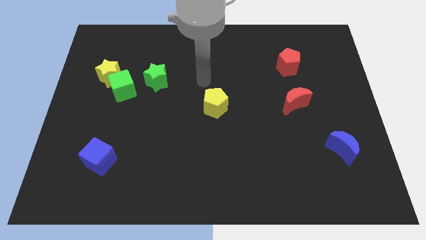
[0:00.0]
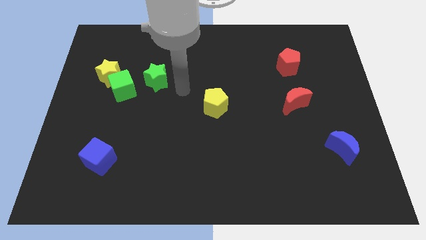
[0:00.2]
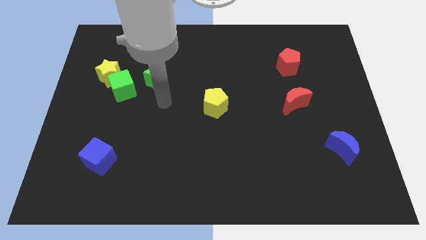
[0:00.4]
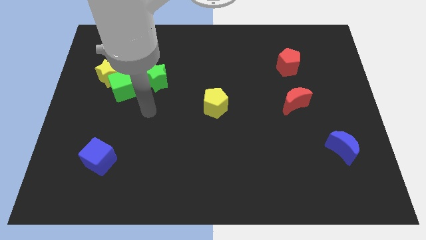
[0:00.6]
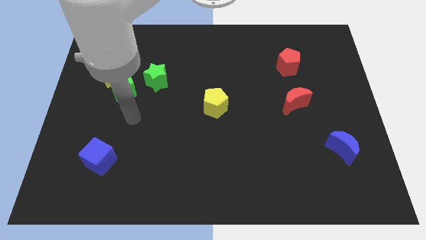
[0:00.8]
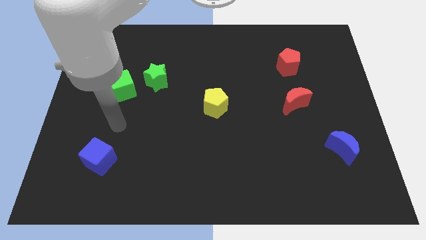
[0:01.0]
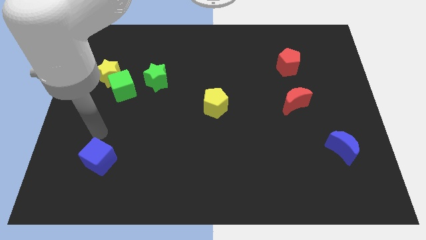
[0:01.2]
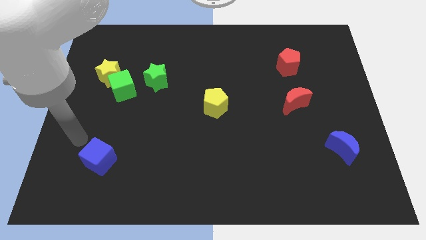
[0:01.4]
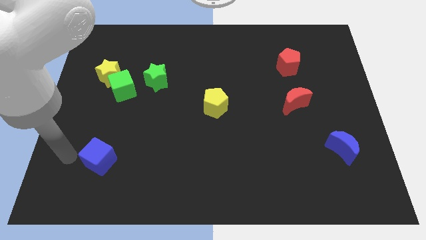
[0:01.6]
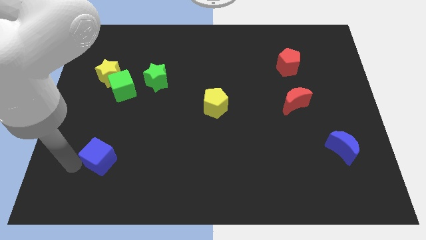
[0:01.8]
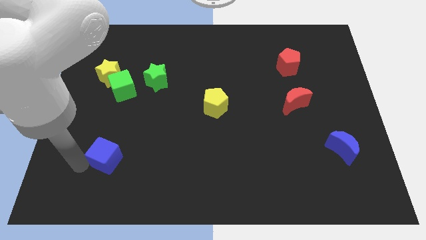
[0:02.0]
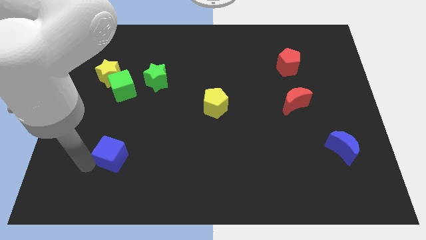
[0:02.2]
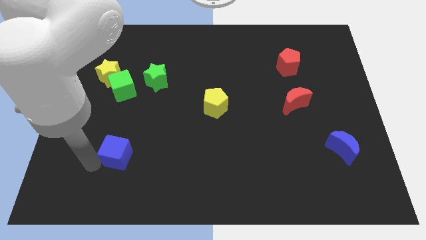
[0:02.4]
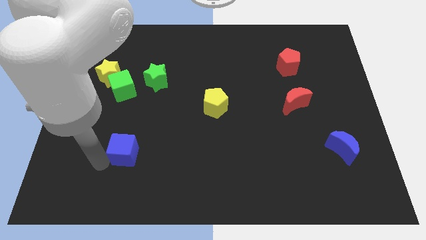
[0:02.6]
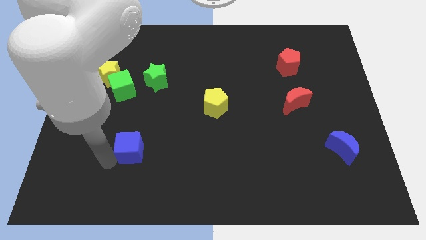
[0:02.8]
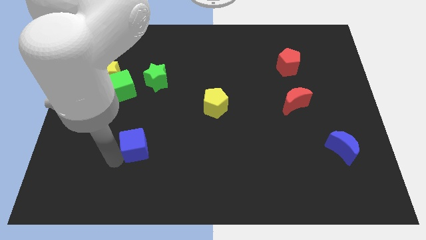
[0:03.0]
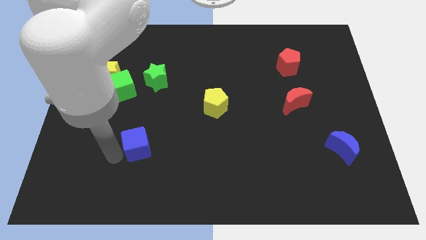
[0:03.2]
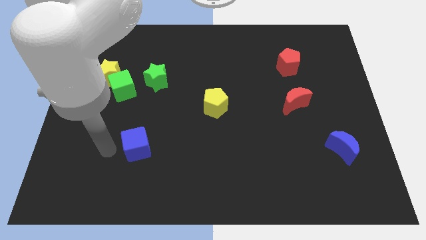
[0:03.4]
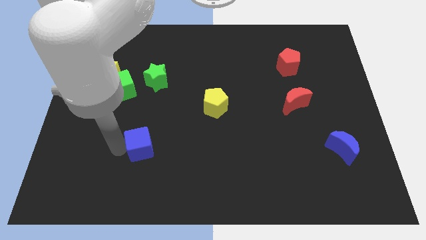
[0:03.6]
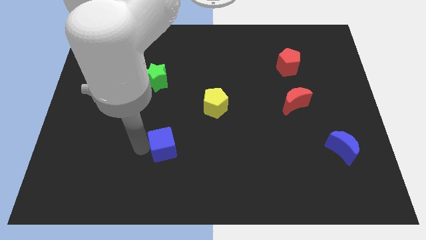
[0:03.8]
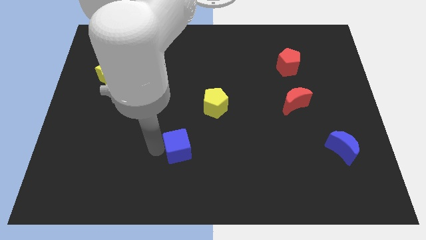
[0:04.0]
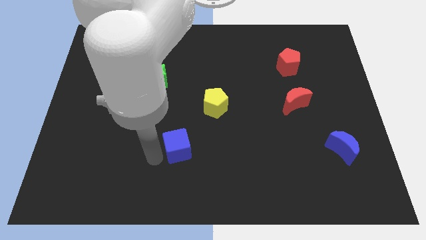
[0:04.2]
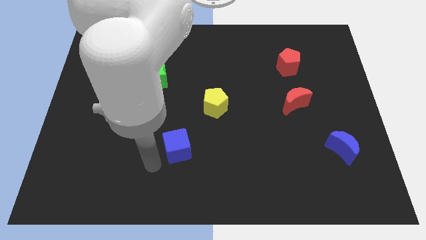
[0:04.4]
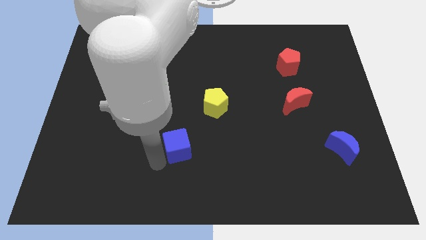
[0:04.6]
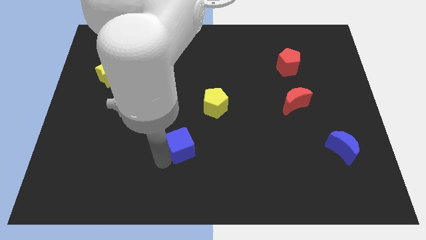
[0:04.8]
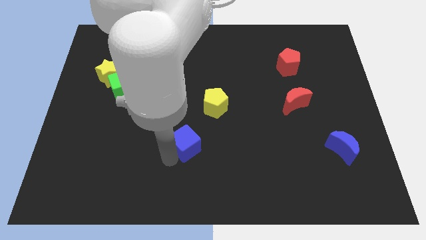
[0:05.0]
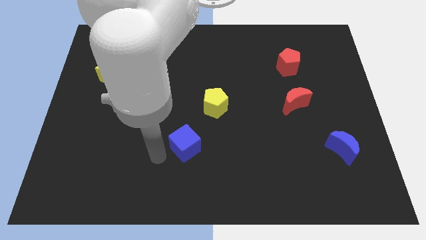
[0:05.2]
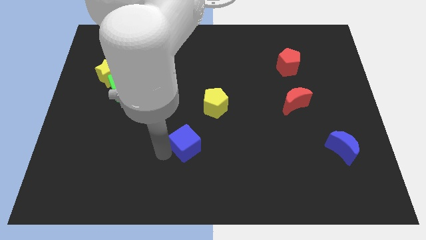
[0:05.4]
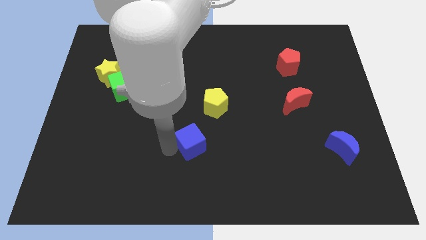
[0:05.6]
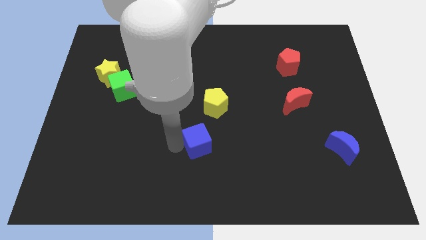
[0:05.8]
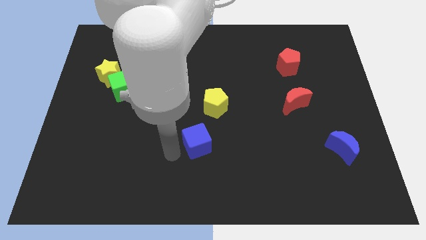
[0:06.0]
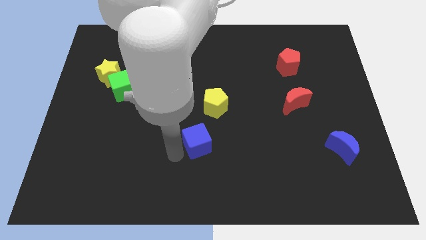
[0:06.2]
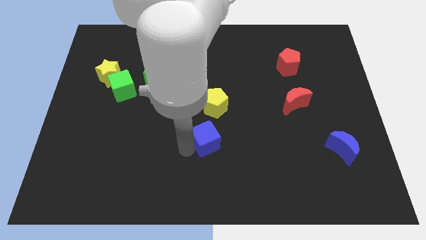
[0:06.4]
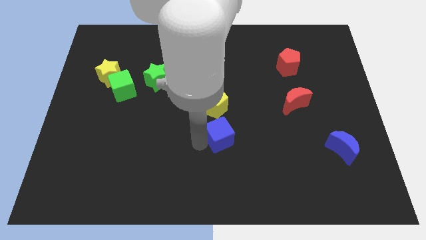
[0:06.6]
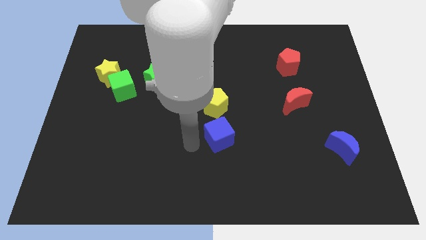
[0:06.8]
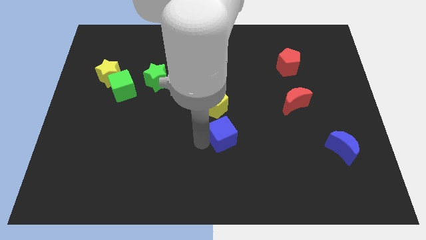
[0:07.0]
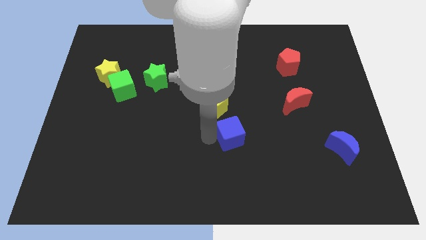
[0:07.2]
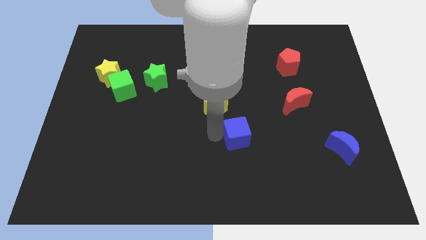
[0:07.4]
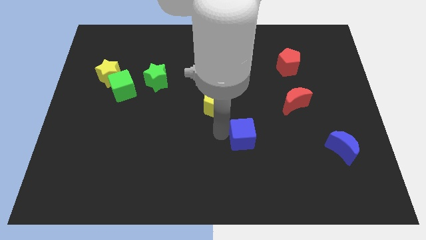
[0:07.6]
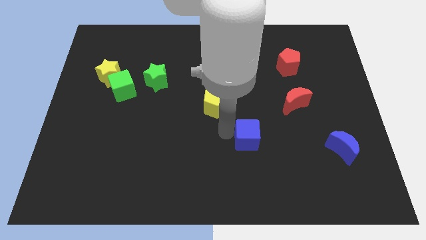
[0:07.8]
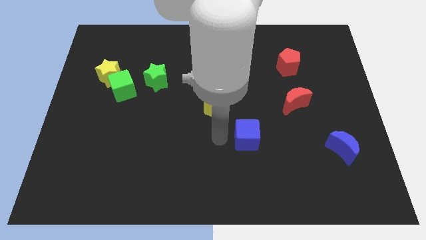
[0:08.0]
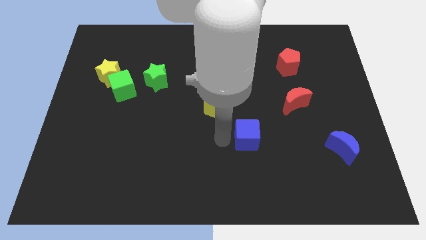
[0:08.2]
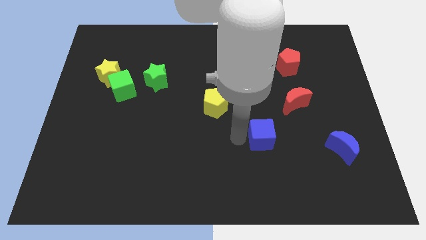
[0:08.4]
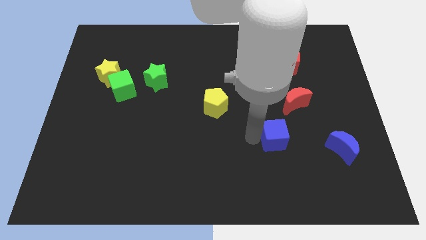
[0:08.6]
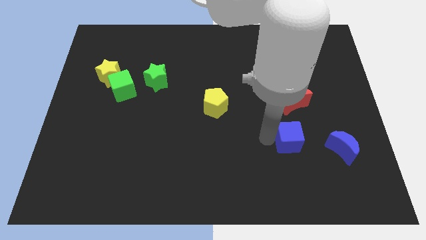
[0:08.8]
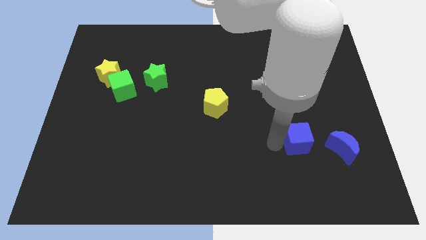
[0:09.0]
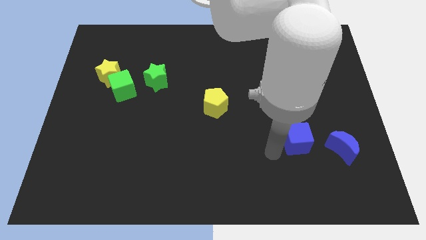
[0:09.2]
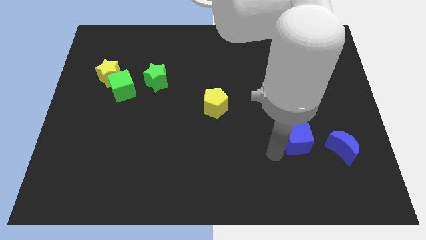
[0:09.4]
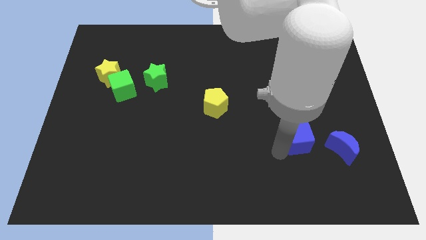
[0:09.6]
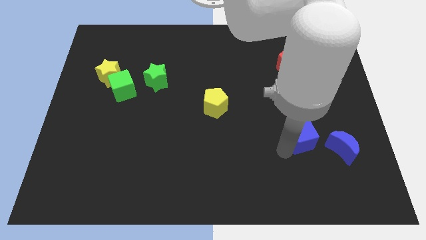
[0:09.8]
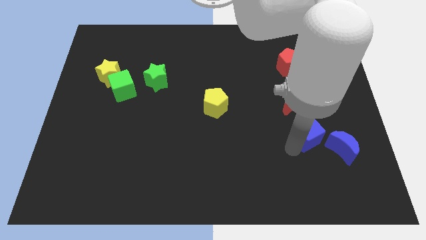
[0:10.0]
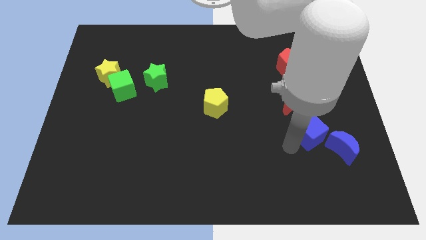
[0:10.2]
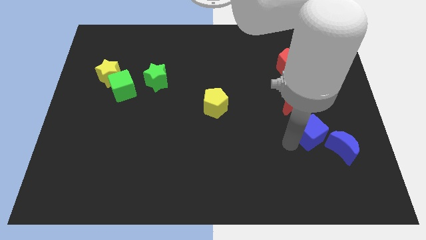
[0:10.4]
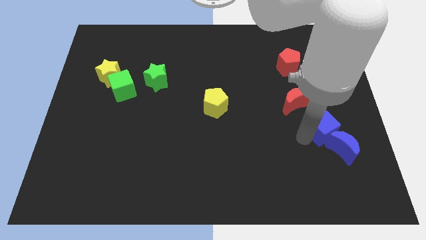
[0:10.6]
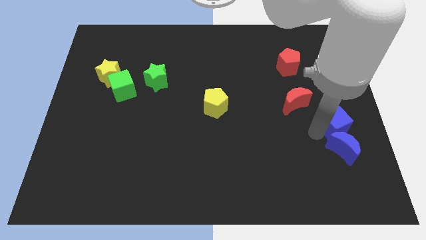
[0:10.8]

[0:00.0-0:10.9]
put the blue cube to the right side of the board

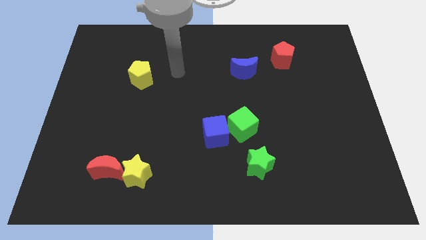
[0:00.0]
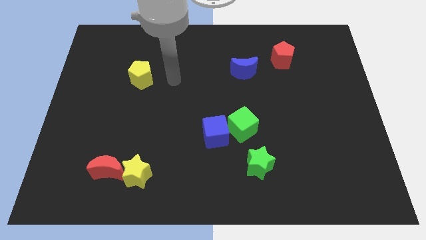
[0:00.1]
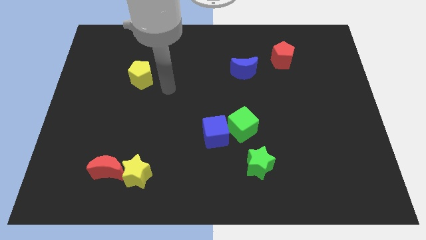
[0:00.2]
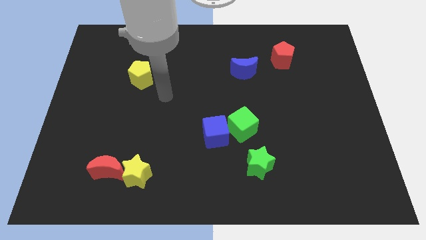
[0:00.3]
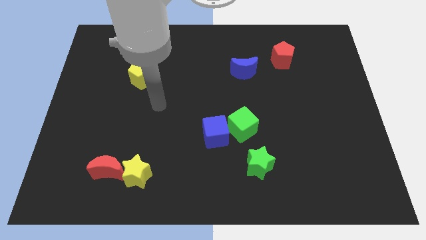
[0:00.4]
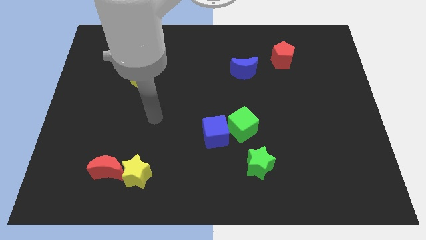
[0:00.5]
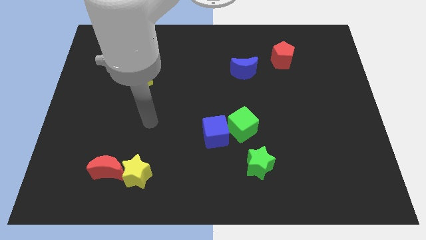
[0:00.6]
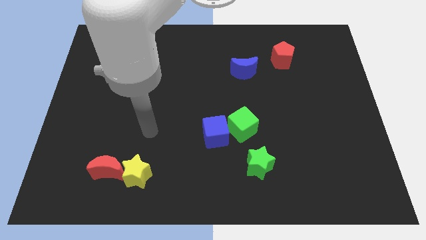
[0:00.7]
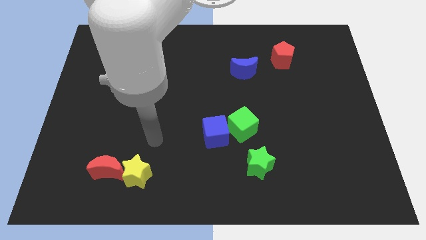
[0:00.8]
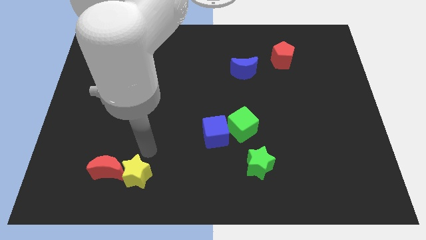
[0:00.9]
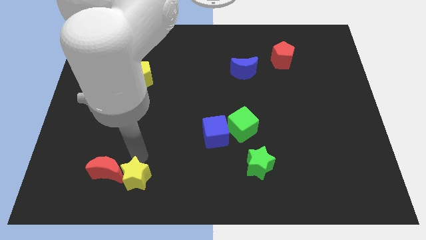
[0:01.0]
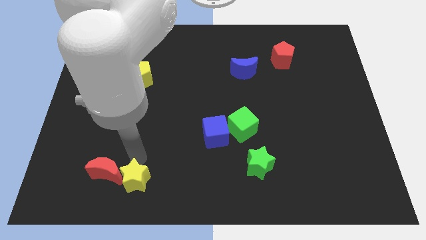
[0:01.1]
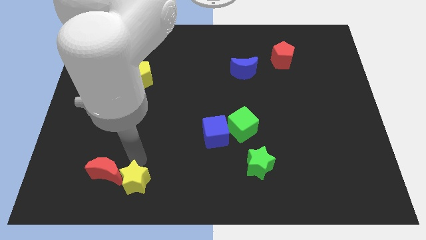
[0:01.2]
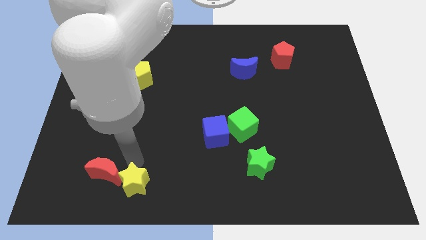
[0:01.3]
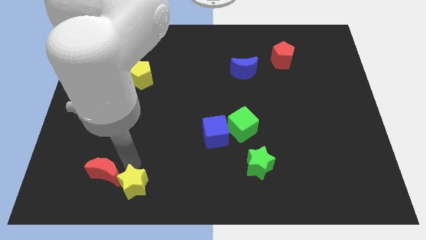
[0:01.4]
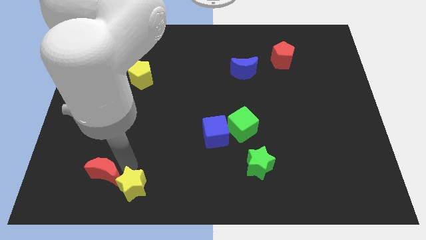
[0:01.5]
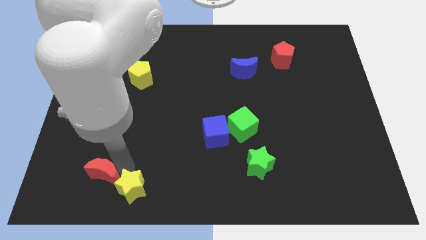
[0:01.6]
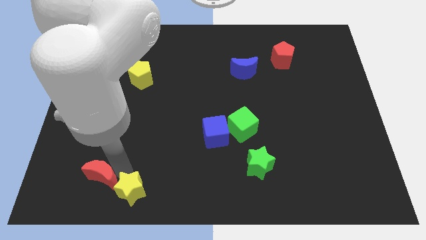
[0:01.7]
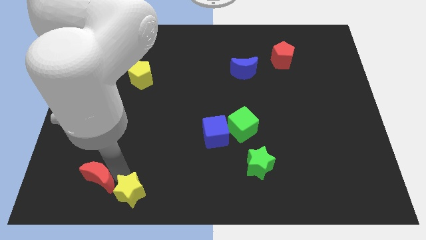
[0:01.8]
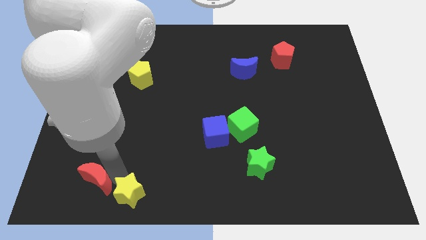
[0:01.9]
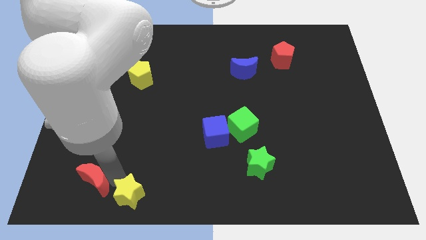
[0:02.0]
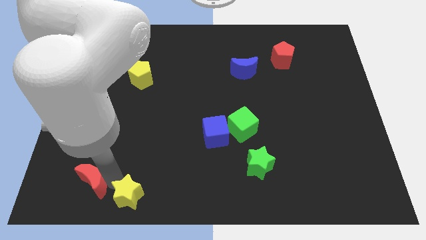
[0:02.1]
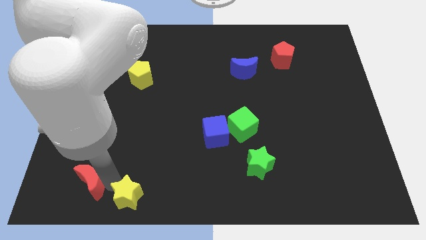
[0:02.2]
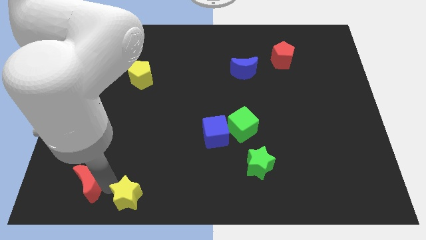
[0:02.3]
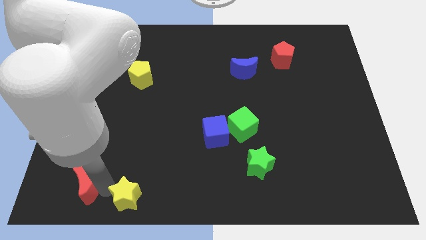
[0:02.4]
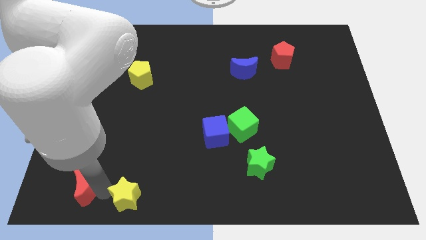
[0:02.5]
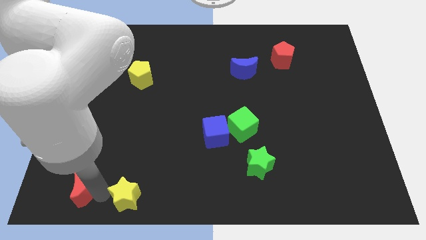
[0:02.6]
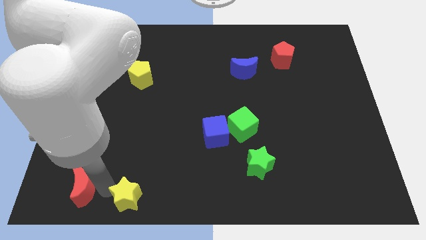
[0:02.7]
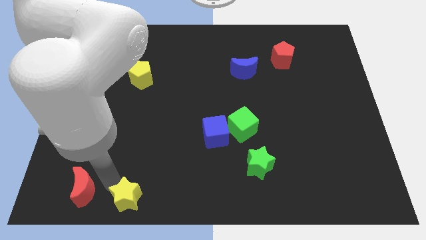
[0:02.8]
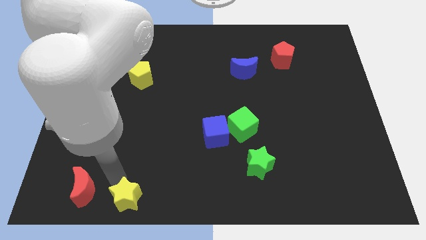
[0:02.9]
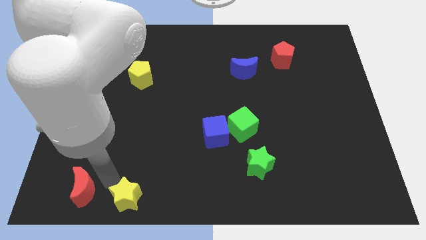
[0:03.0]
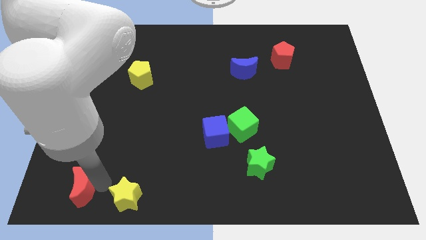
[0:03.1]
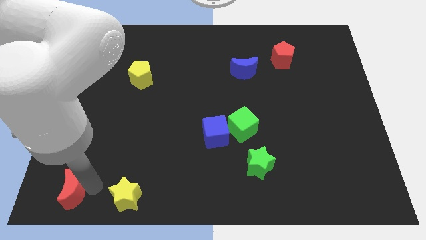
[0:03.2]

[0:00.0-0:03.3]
move the red moon to the bottom left corner
